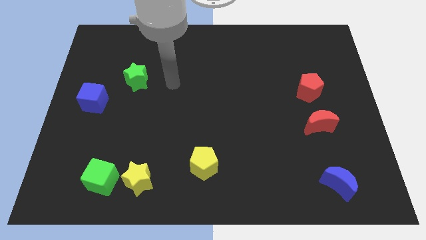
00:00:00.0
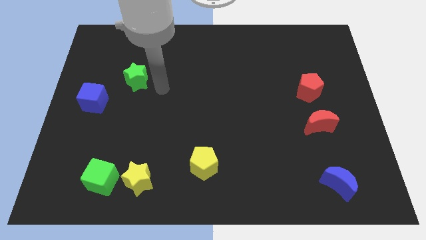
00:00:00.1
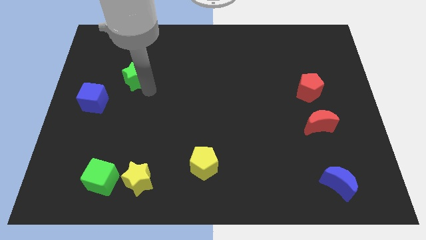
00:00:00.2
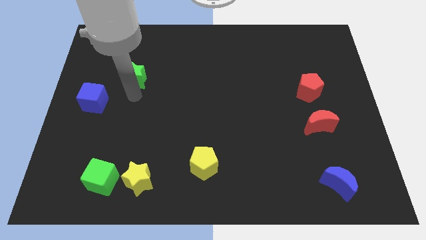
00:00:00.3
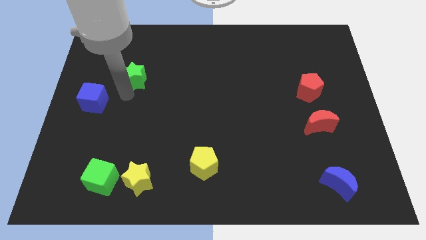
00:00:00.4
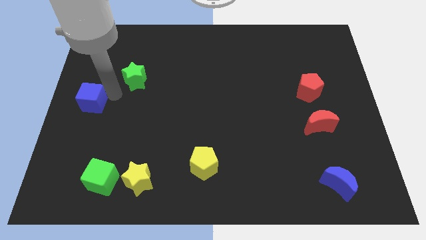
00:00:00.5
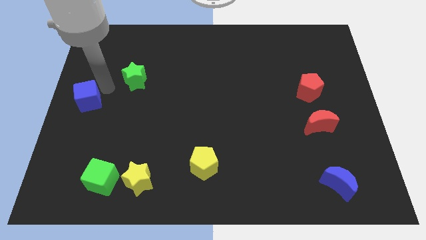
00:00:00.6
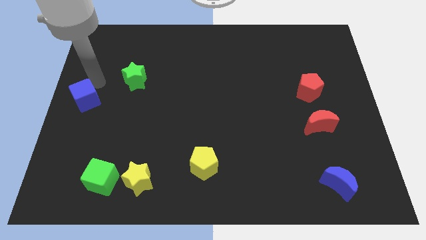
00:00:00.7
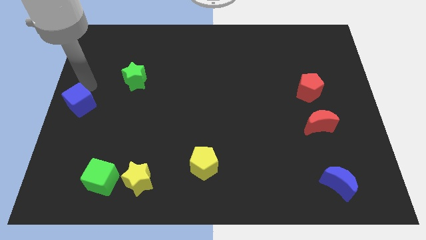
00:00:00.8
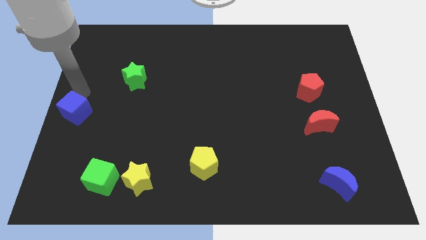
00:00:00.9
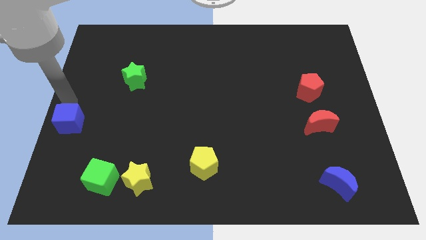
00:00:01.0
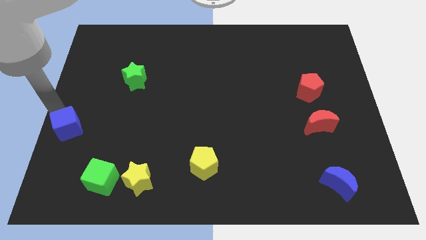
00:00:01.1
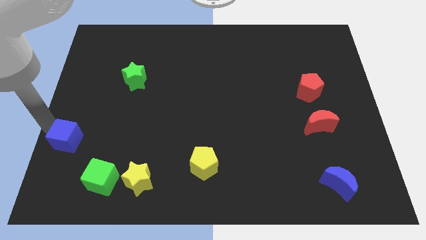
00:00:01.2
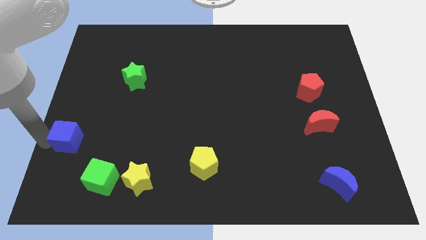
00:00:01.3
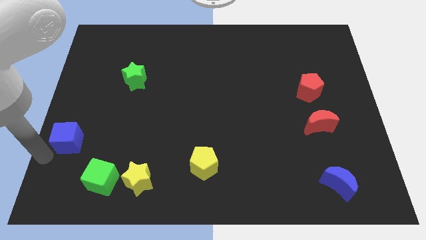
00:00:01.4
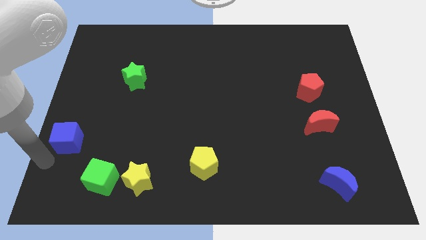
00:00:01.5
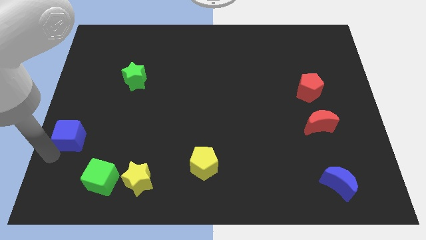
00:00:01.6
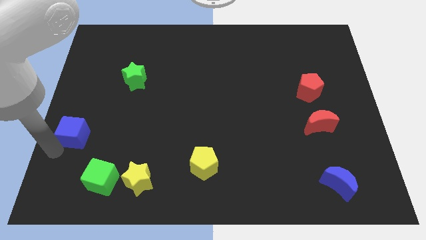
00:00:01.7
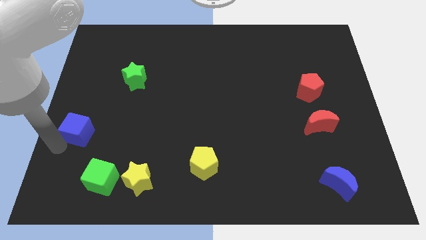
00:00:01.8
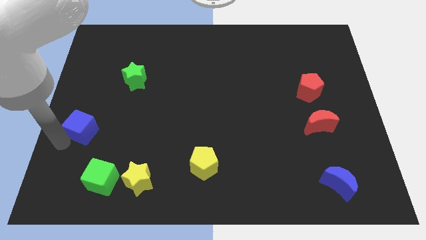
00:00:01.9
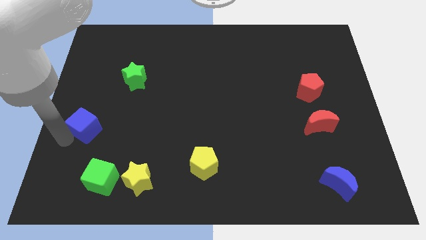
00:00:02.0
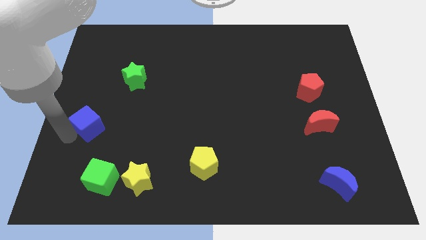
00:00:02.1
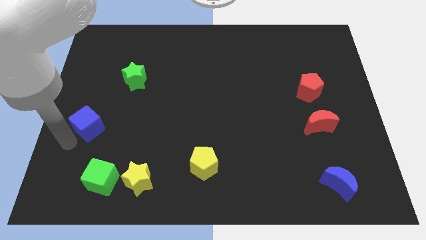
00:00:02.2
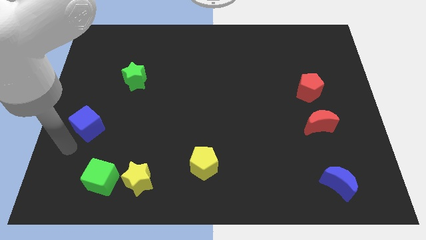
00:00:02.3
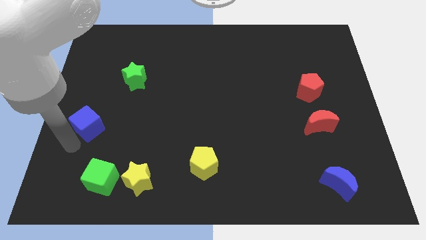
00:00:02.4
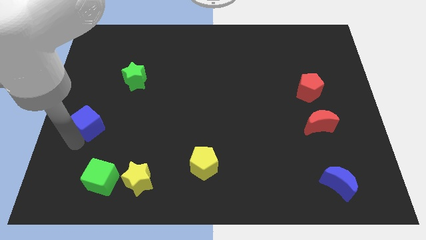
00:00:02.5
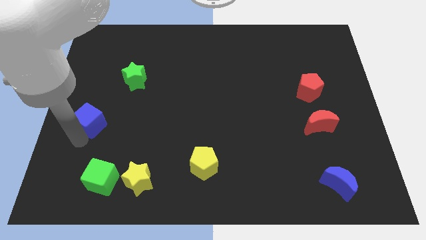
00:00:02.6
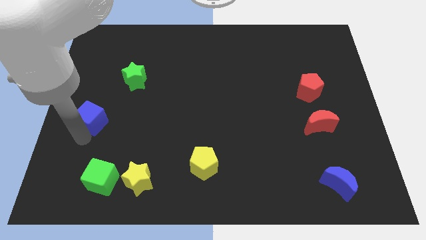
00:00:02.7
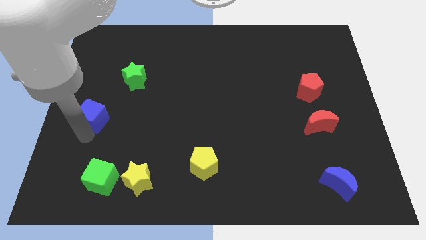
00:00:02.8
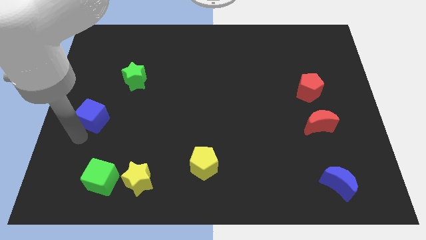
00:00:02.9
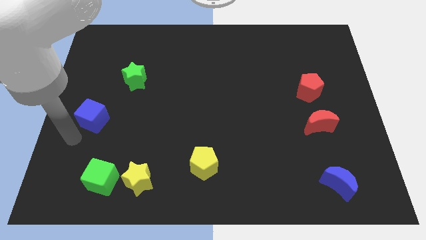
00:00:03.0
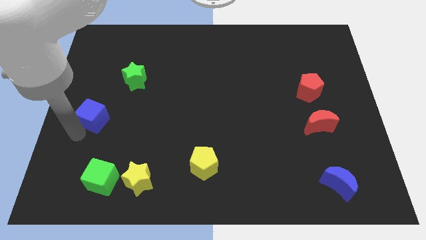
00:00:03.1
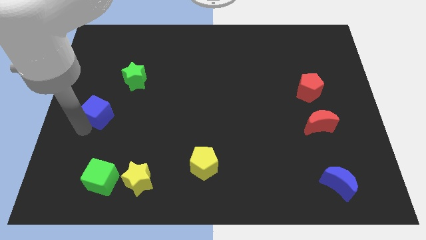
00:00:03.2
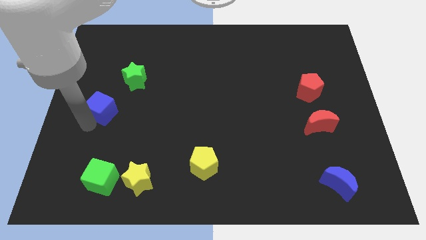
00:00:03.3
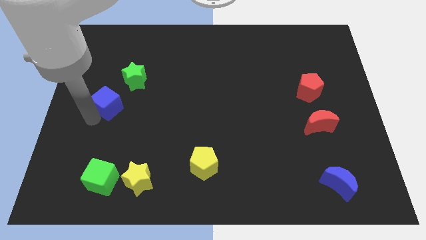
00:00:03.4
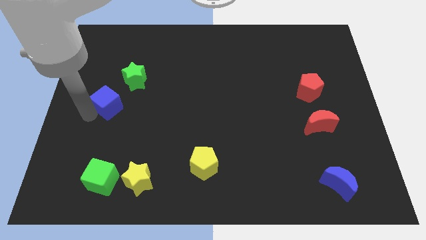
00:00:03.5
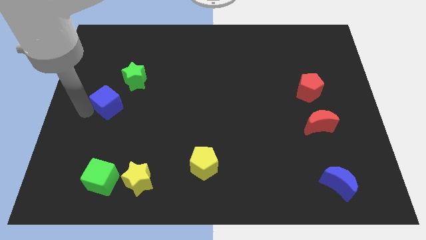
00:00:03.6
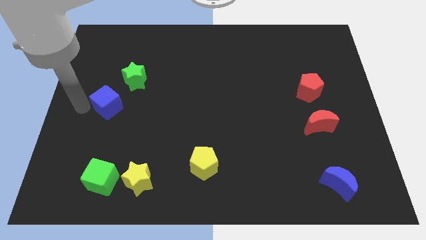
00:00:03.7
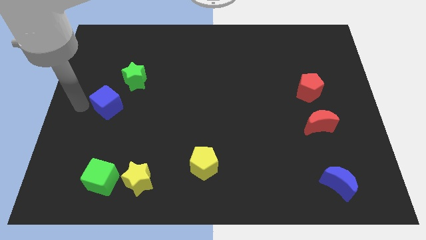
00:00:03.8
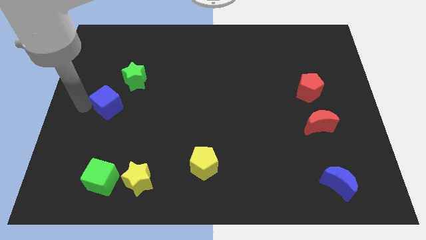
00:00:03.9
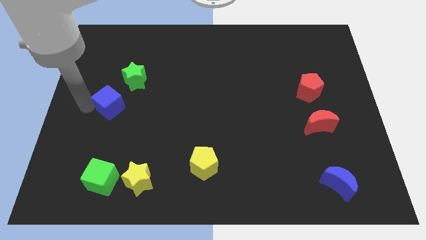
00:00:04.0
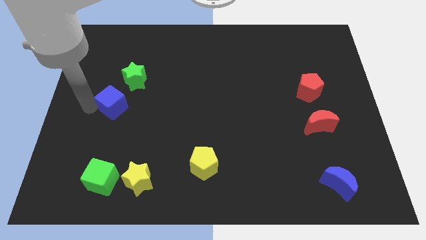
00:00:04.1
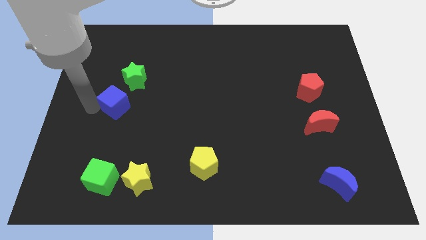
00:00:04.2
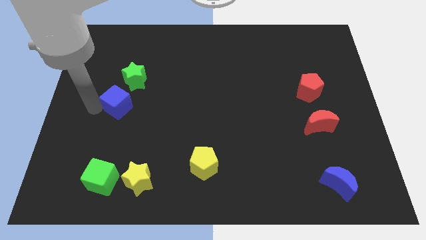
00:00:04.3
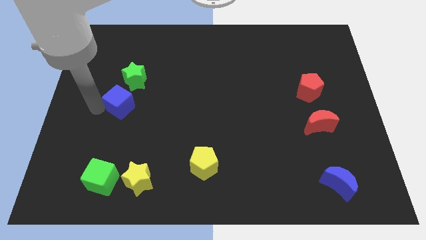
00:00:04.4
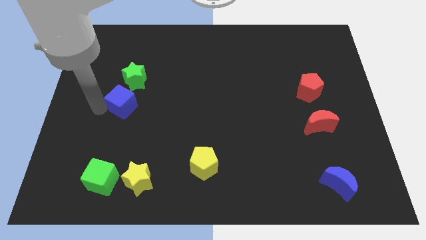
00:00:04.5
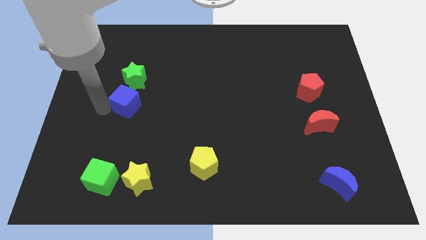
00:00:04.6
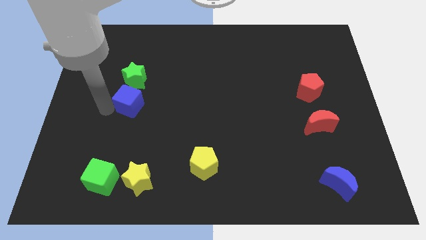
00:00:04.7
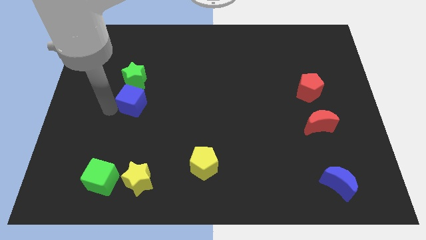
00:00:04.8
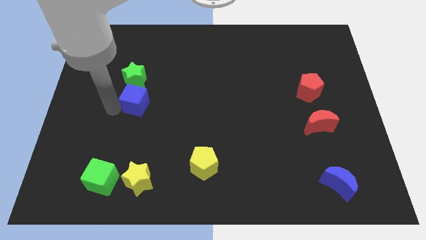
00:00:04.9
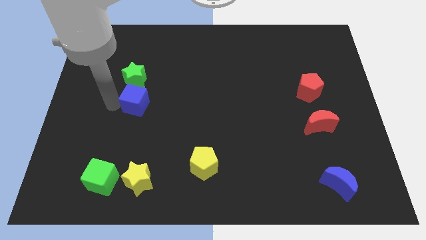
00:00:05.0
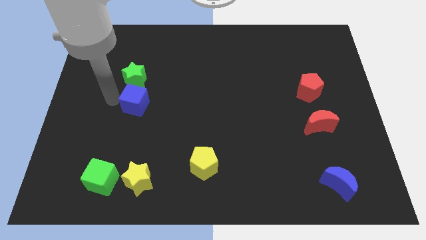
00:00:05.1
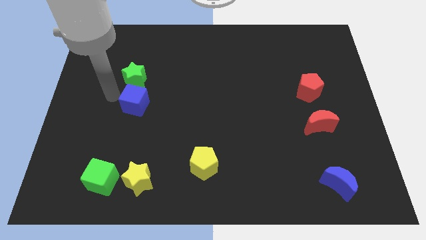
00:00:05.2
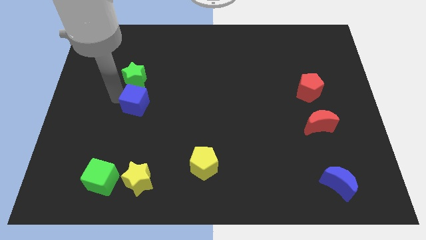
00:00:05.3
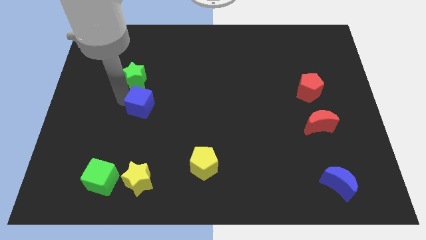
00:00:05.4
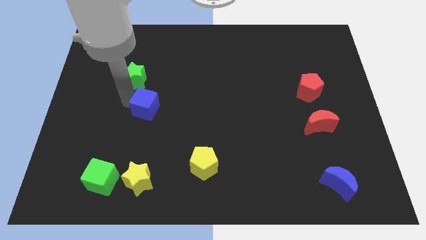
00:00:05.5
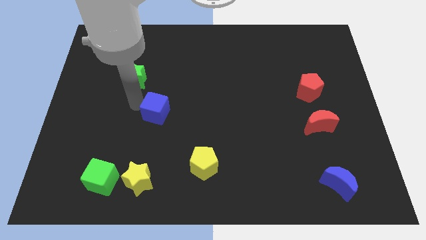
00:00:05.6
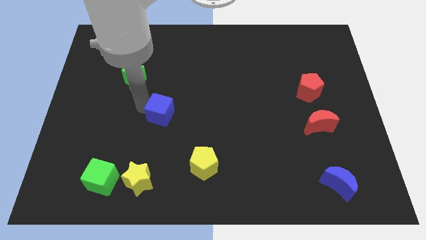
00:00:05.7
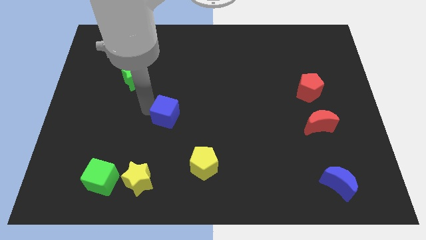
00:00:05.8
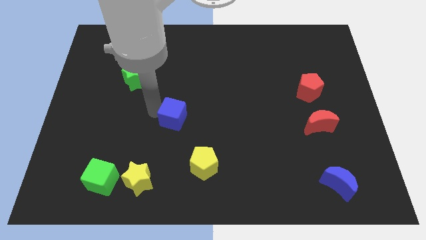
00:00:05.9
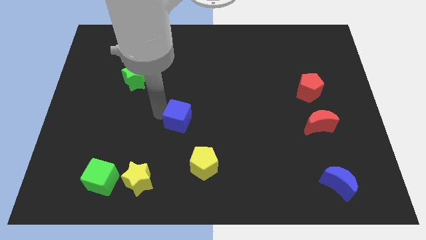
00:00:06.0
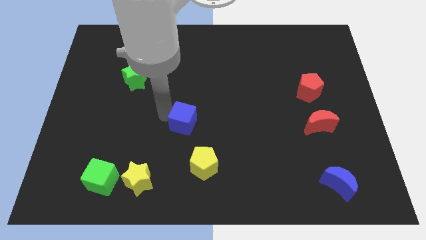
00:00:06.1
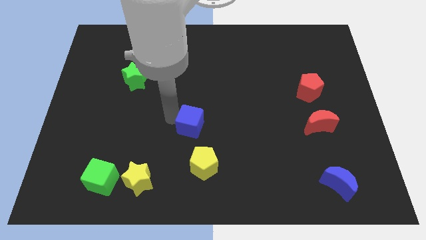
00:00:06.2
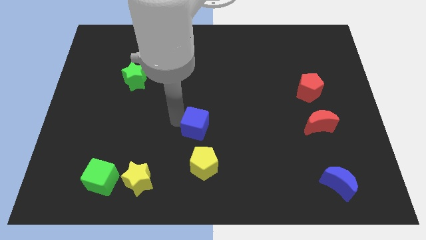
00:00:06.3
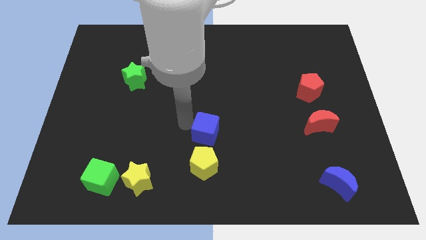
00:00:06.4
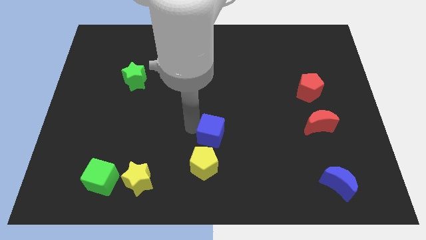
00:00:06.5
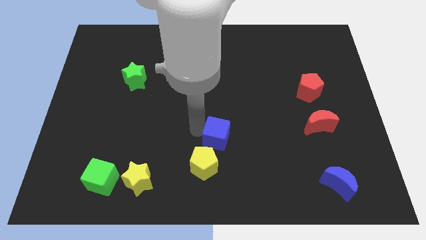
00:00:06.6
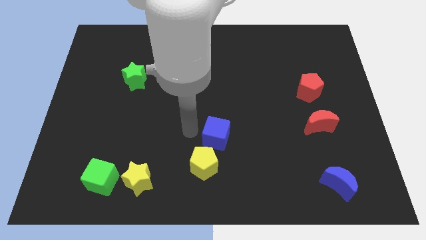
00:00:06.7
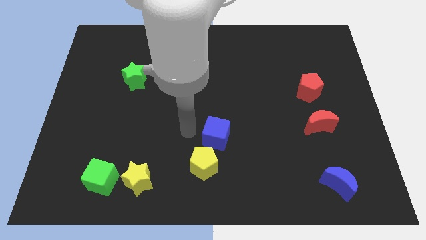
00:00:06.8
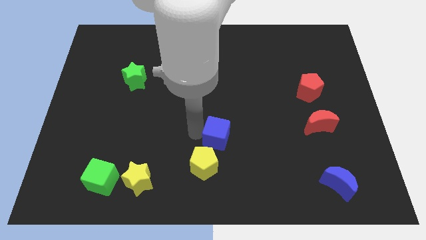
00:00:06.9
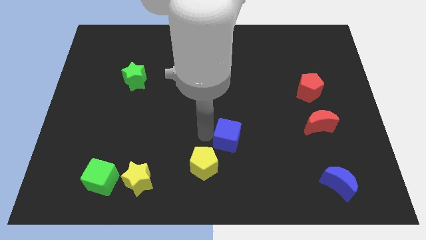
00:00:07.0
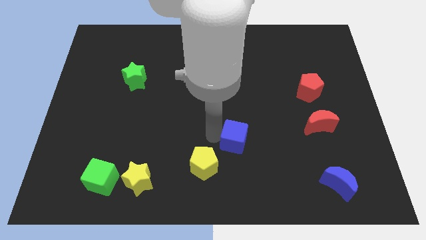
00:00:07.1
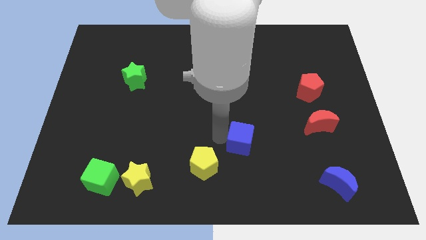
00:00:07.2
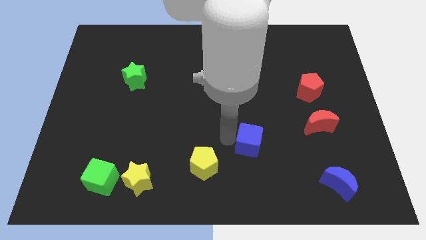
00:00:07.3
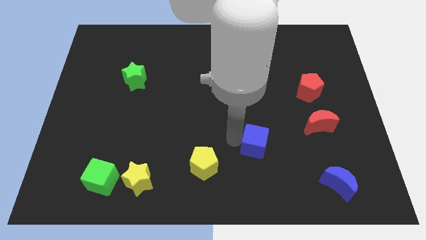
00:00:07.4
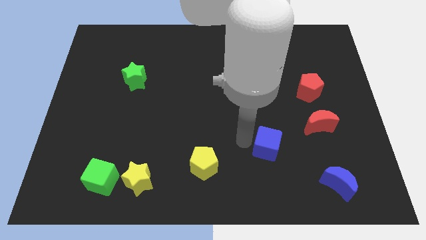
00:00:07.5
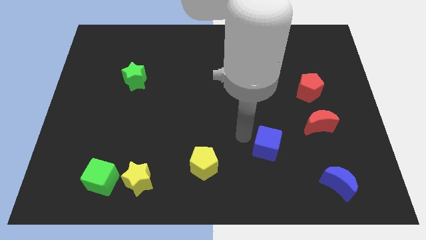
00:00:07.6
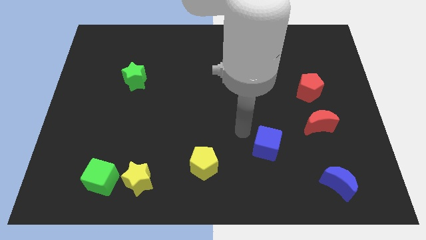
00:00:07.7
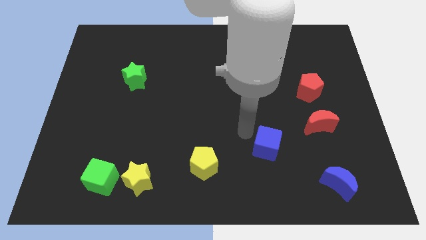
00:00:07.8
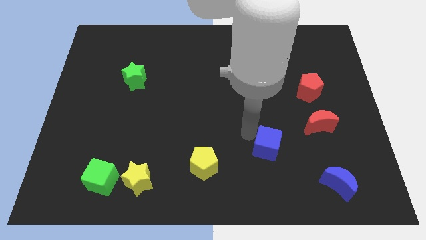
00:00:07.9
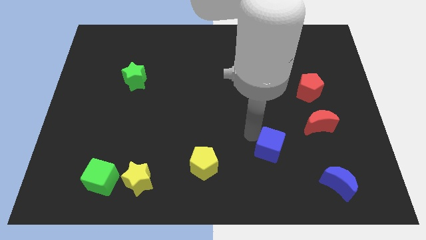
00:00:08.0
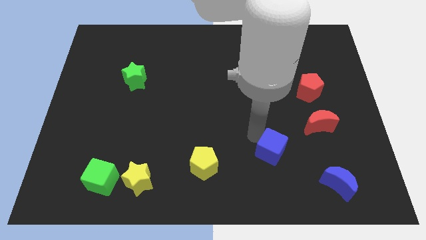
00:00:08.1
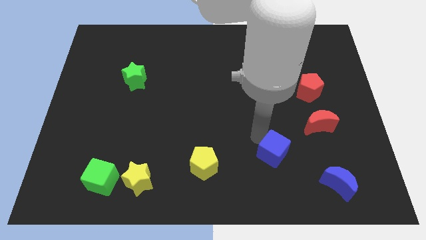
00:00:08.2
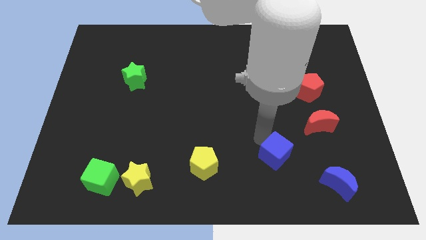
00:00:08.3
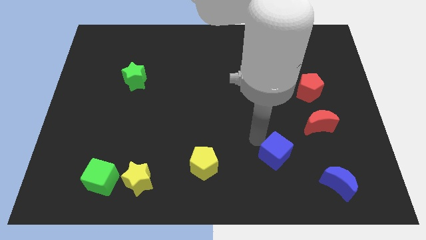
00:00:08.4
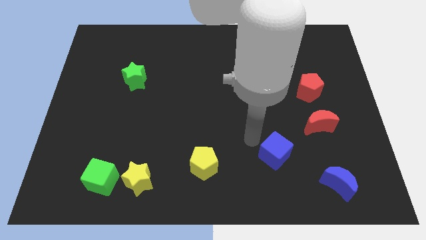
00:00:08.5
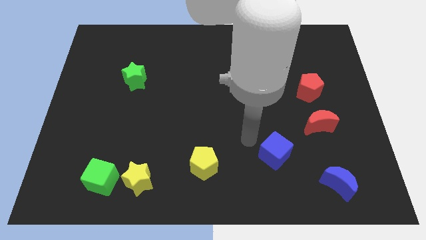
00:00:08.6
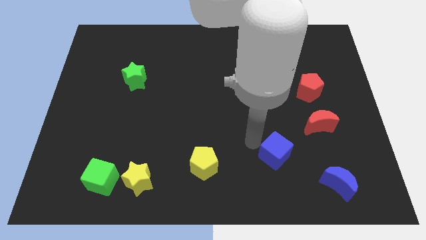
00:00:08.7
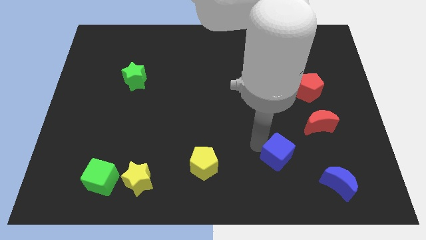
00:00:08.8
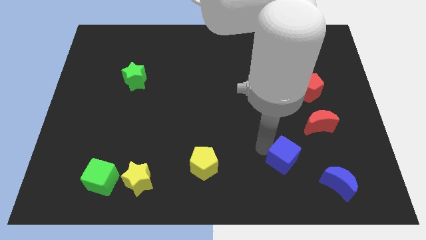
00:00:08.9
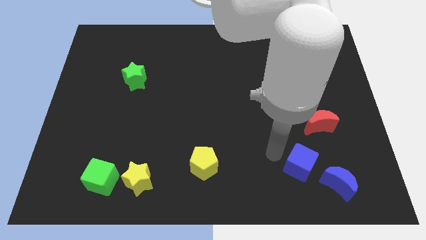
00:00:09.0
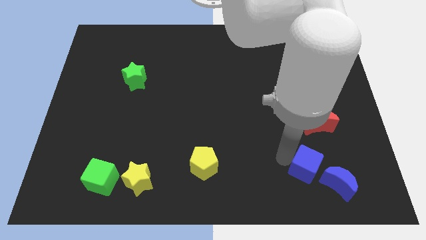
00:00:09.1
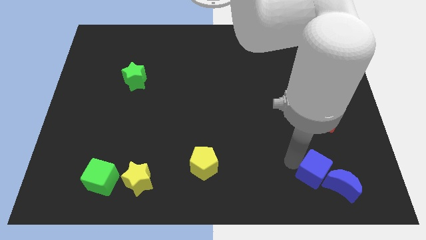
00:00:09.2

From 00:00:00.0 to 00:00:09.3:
put the blue cube close to the blue moon
